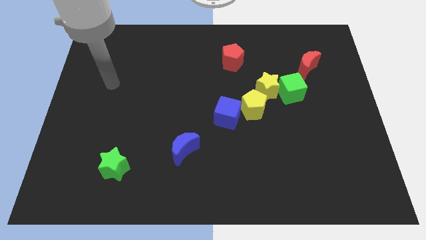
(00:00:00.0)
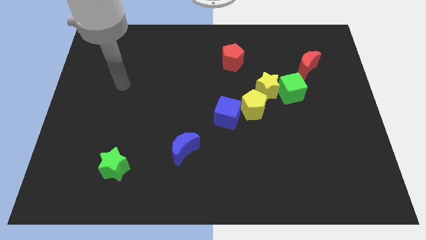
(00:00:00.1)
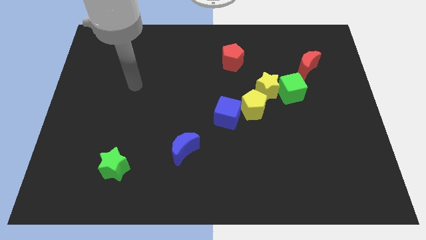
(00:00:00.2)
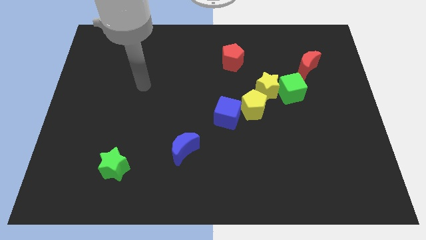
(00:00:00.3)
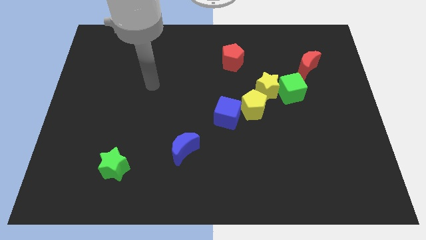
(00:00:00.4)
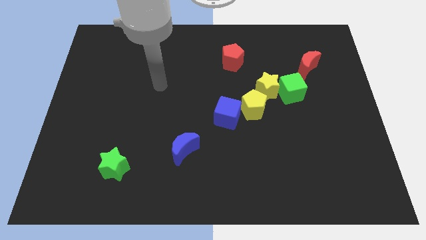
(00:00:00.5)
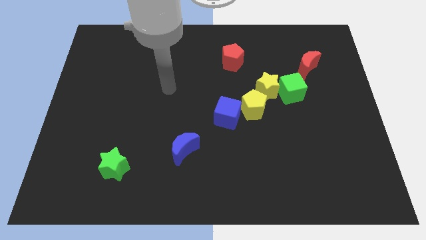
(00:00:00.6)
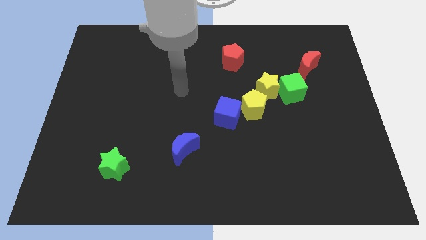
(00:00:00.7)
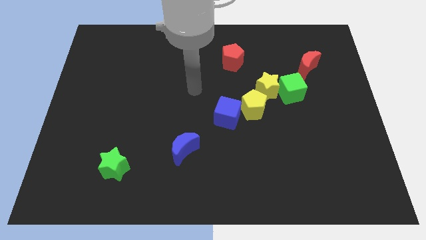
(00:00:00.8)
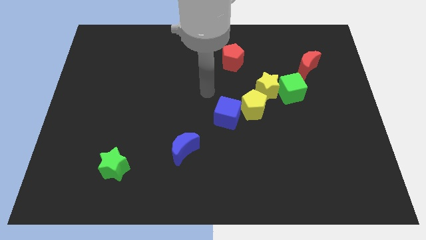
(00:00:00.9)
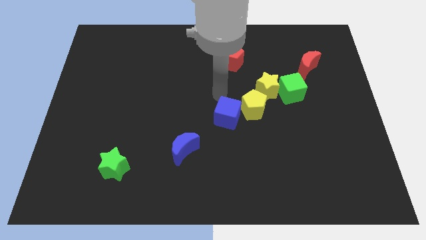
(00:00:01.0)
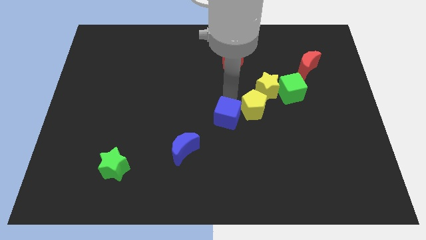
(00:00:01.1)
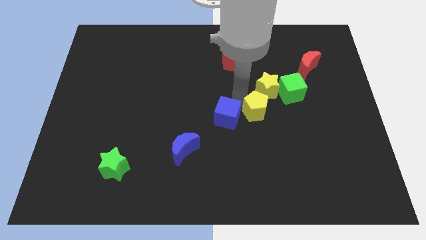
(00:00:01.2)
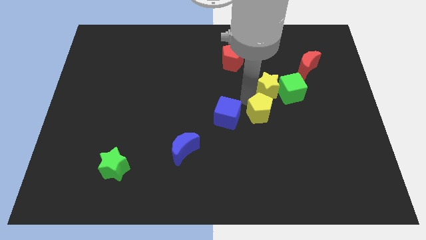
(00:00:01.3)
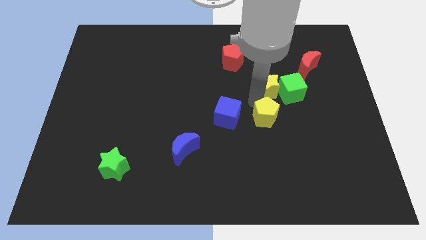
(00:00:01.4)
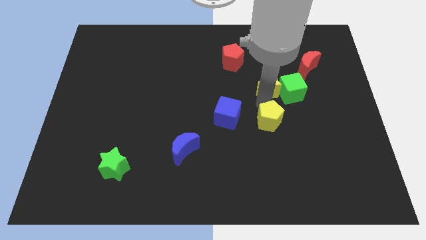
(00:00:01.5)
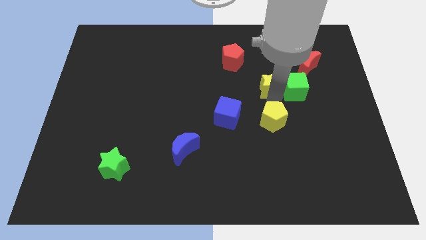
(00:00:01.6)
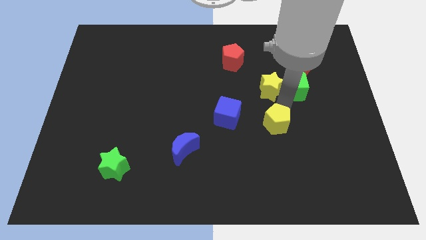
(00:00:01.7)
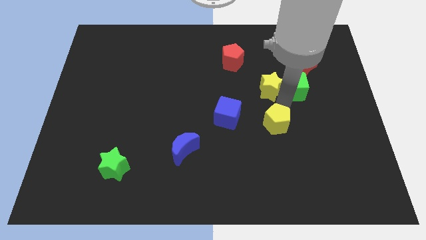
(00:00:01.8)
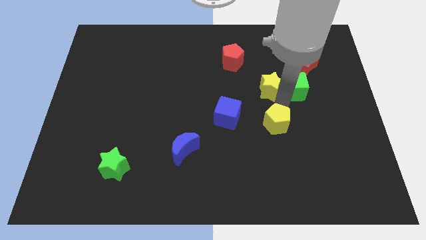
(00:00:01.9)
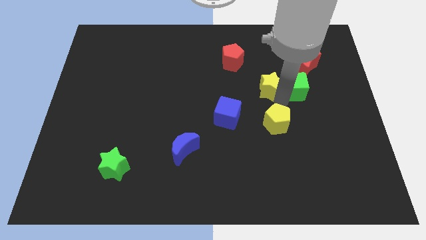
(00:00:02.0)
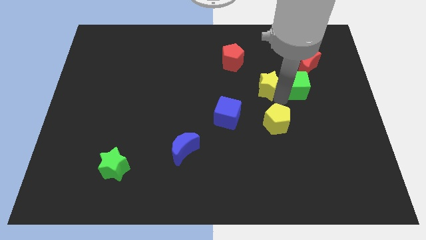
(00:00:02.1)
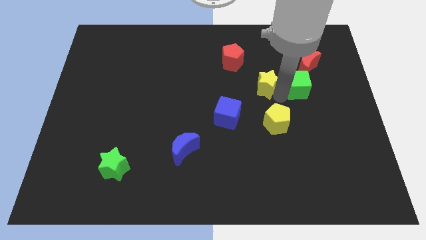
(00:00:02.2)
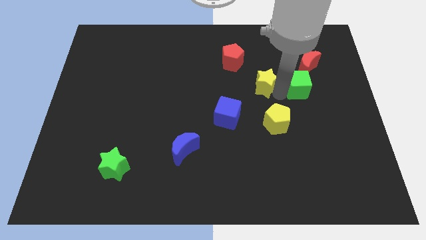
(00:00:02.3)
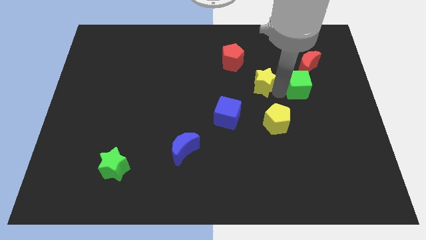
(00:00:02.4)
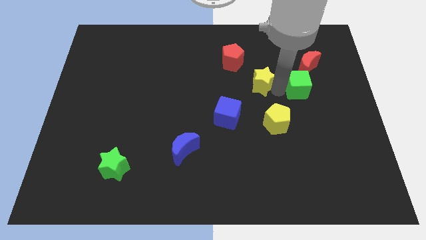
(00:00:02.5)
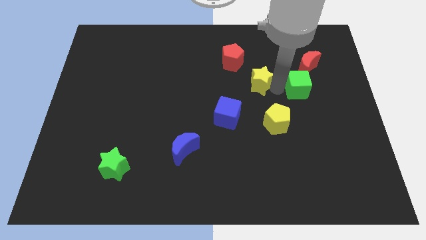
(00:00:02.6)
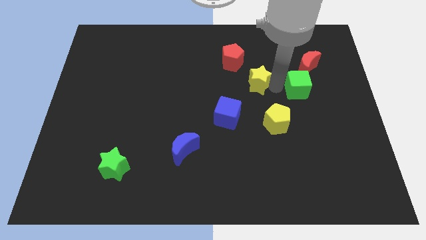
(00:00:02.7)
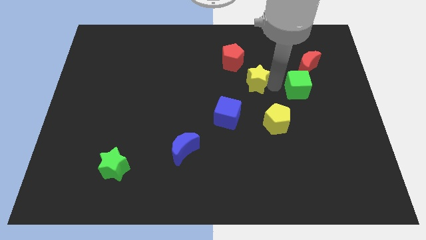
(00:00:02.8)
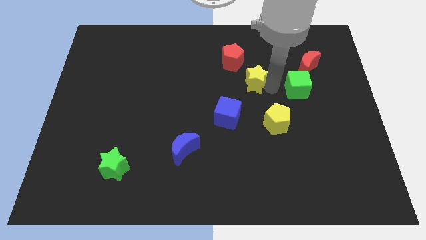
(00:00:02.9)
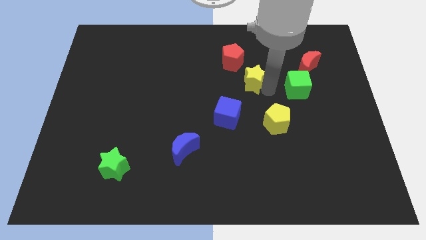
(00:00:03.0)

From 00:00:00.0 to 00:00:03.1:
separate the yellow star from the green cube and yellow pentagon

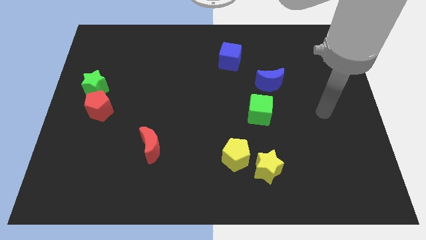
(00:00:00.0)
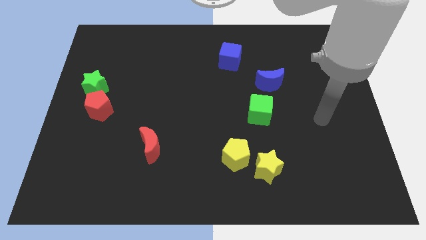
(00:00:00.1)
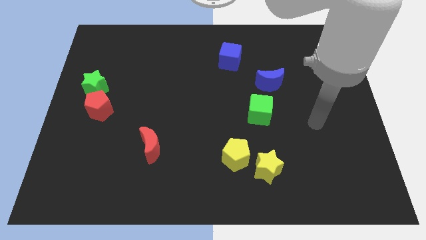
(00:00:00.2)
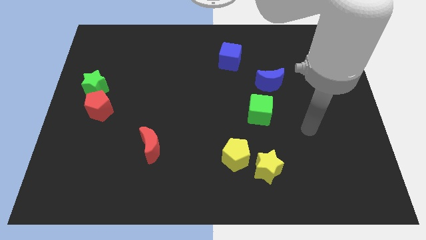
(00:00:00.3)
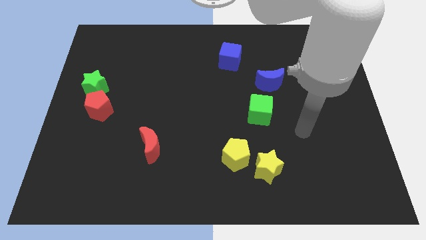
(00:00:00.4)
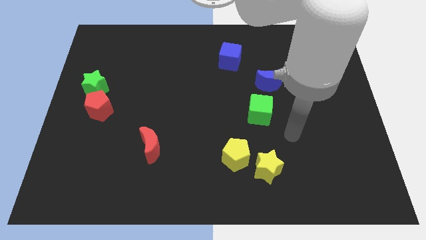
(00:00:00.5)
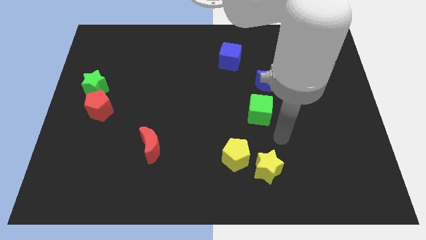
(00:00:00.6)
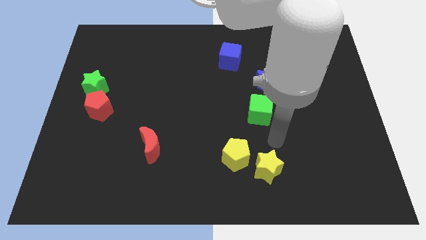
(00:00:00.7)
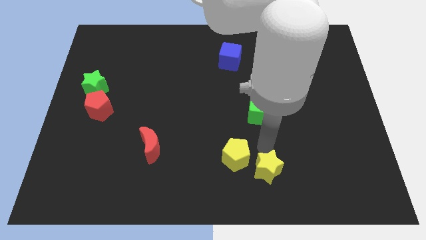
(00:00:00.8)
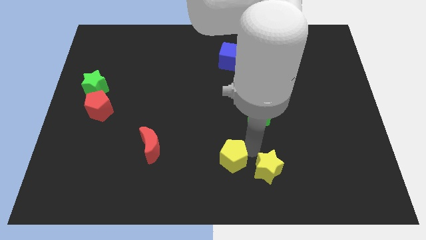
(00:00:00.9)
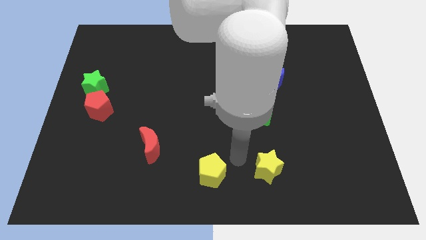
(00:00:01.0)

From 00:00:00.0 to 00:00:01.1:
move the yellow star away from the yellow pentagon

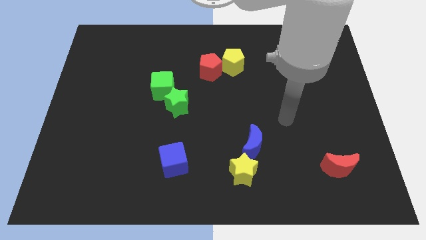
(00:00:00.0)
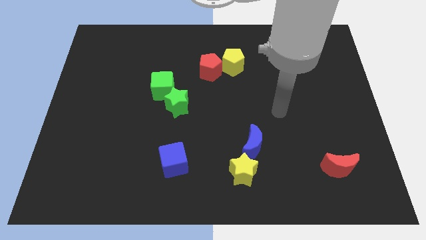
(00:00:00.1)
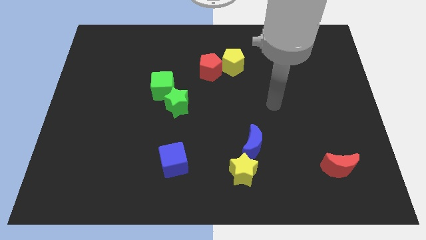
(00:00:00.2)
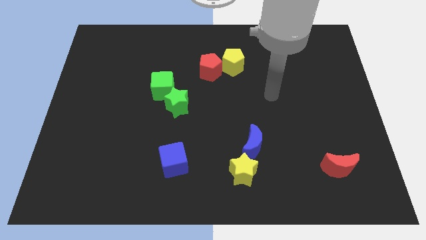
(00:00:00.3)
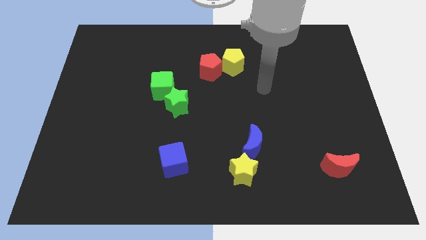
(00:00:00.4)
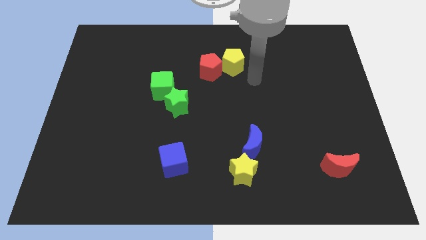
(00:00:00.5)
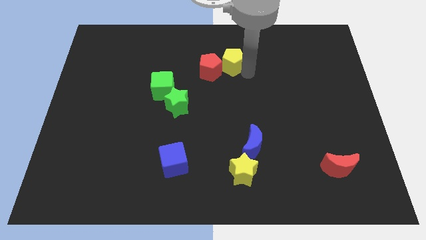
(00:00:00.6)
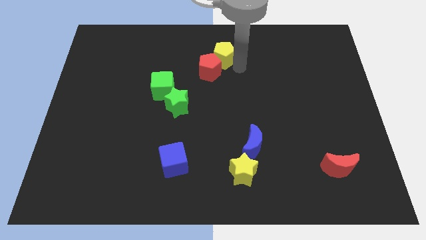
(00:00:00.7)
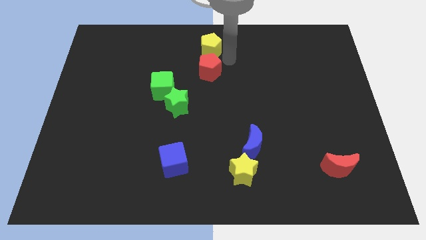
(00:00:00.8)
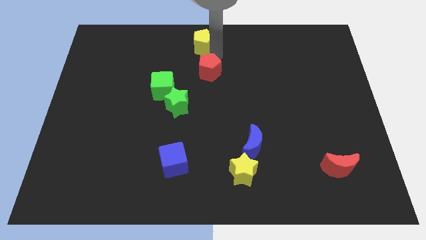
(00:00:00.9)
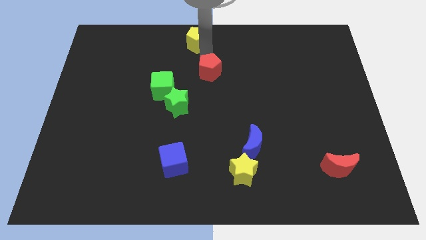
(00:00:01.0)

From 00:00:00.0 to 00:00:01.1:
separate the red pentagon from the yellow pentagon

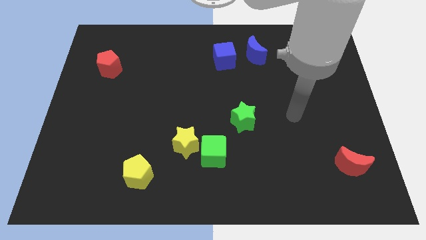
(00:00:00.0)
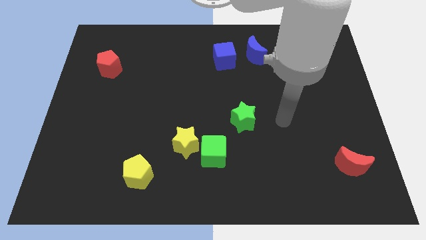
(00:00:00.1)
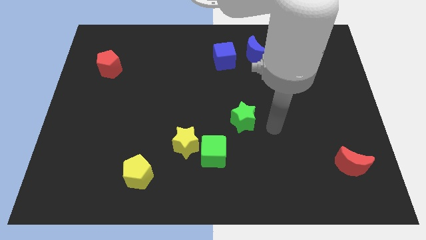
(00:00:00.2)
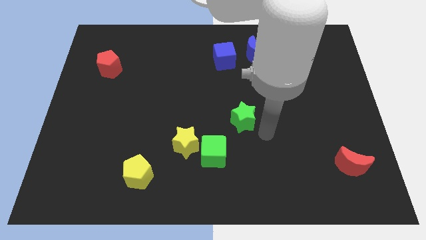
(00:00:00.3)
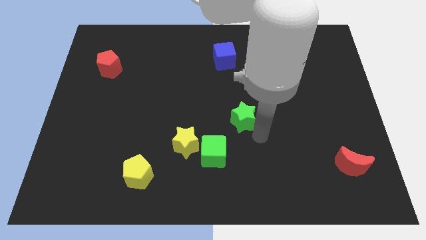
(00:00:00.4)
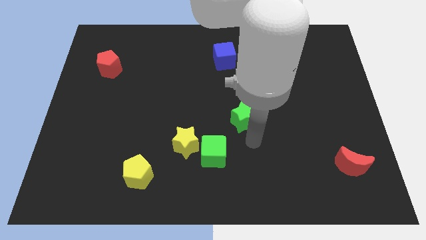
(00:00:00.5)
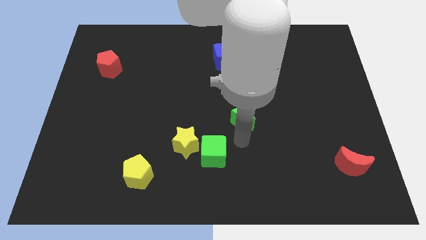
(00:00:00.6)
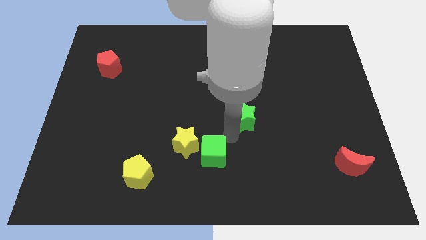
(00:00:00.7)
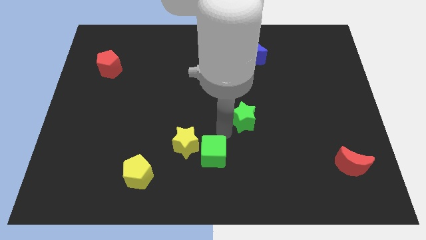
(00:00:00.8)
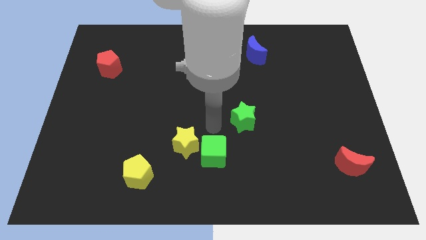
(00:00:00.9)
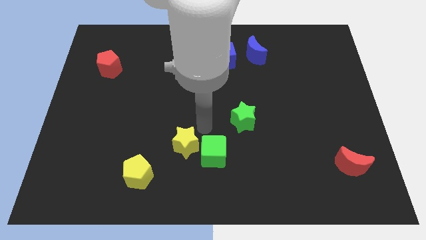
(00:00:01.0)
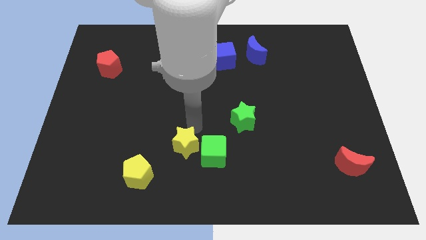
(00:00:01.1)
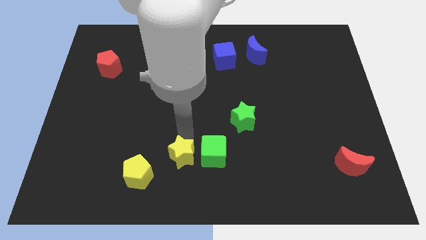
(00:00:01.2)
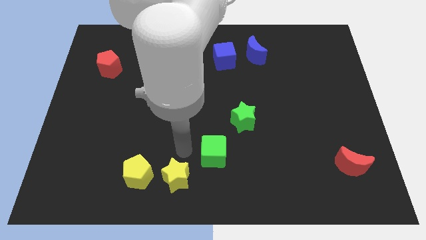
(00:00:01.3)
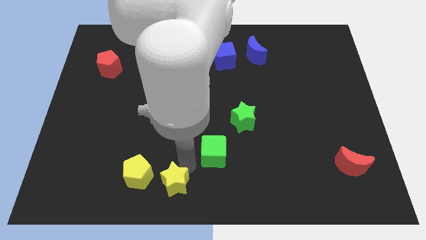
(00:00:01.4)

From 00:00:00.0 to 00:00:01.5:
move the green cube away from the yellow star

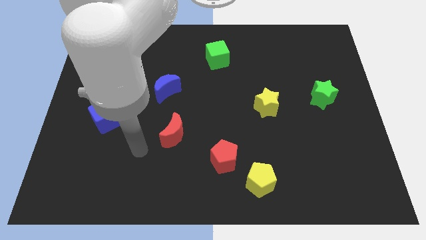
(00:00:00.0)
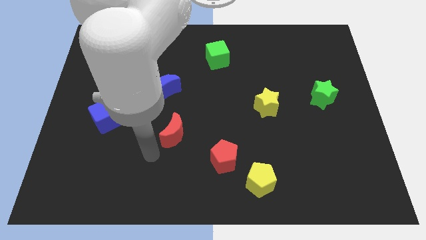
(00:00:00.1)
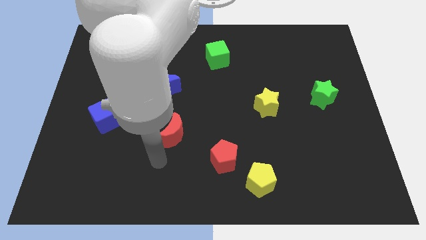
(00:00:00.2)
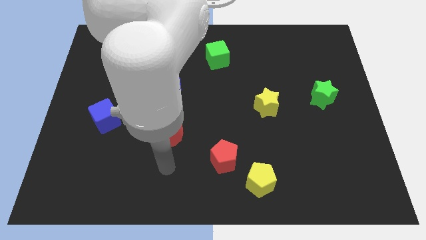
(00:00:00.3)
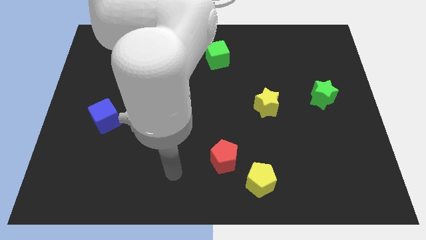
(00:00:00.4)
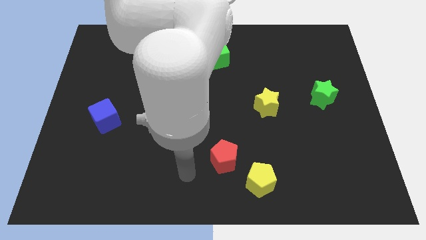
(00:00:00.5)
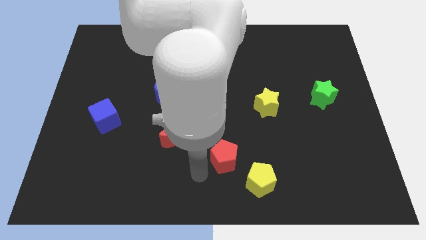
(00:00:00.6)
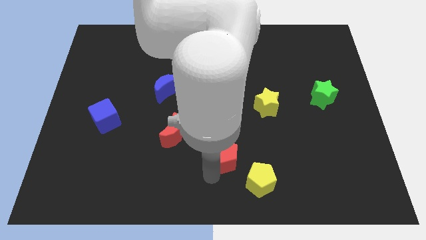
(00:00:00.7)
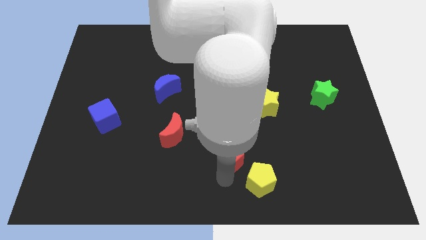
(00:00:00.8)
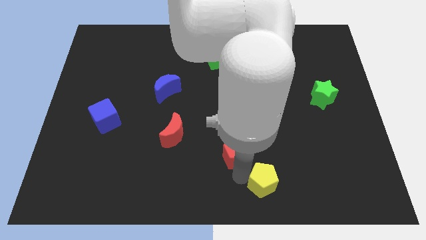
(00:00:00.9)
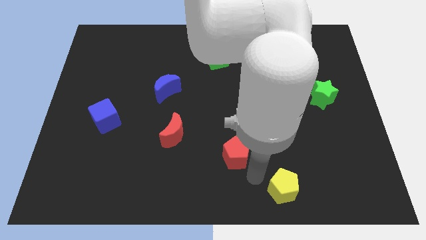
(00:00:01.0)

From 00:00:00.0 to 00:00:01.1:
move the red pentagon away from the yellow pentagon

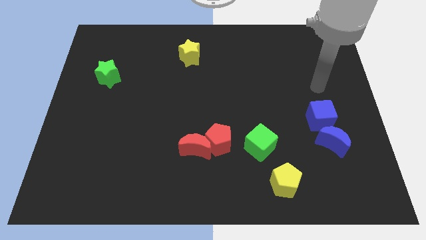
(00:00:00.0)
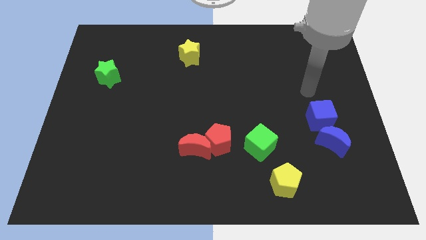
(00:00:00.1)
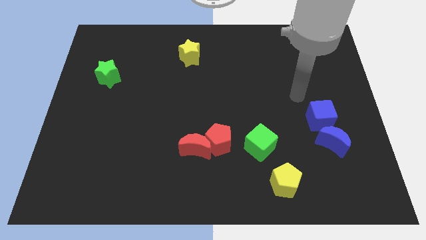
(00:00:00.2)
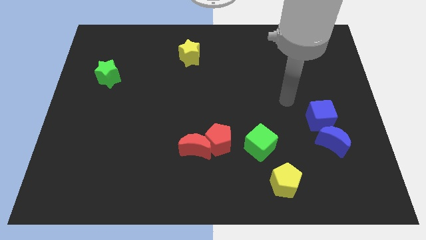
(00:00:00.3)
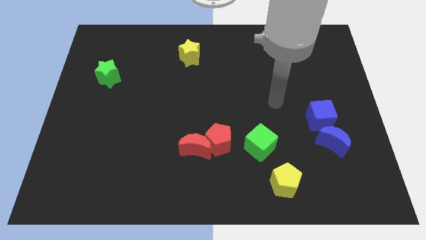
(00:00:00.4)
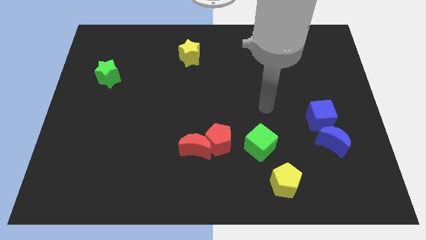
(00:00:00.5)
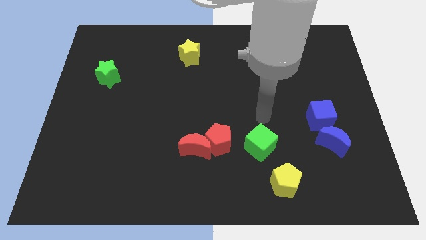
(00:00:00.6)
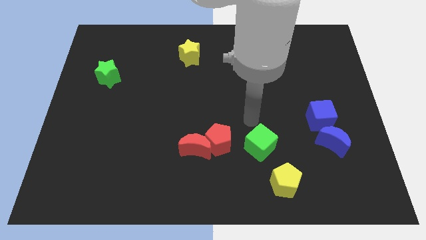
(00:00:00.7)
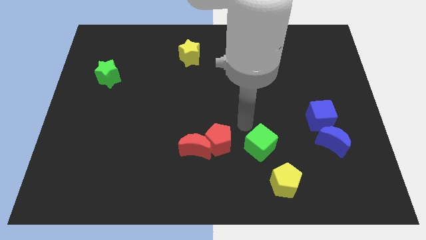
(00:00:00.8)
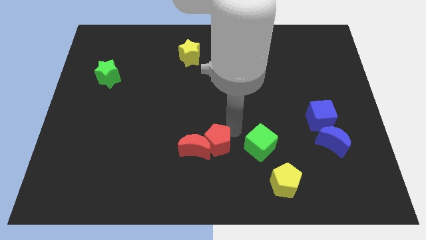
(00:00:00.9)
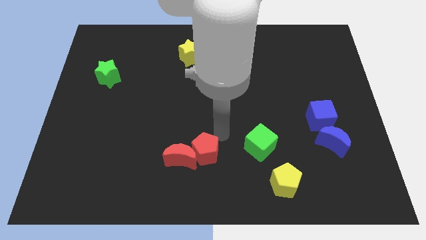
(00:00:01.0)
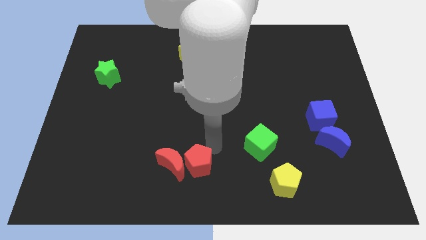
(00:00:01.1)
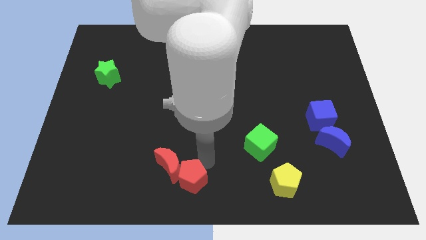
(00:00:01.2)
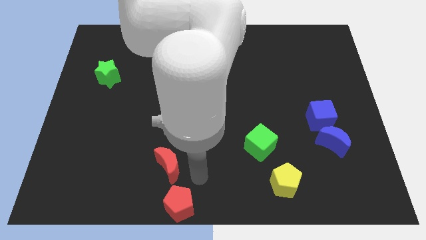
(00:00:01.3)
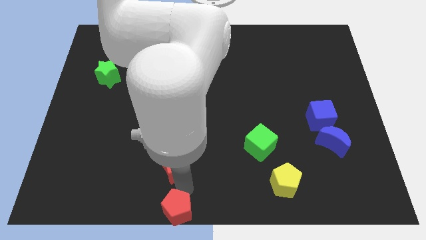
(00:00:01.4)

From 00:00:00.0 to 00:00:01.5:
move the red moon away from the red pentagon
